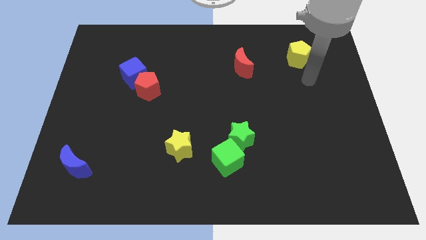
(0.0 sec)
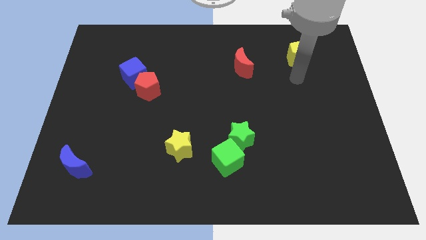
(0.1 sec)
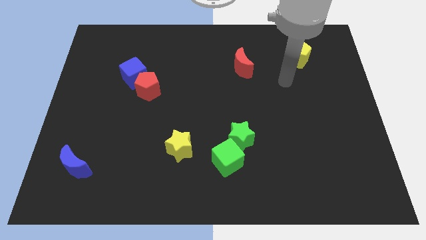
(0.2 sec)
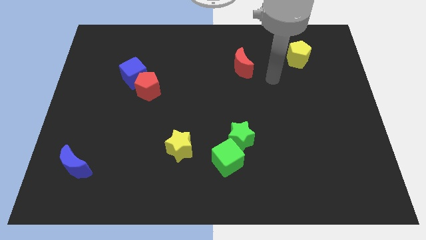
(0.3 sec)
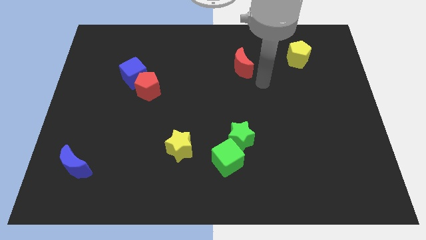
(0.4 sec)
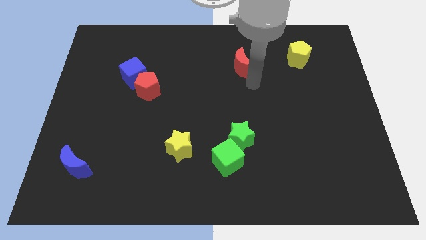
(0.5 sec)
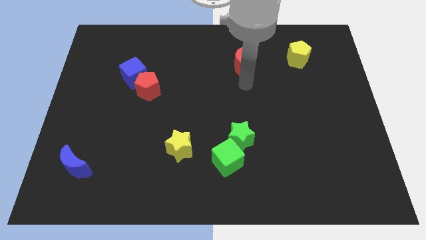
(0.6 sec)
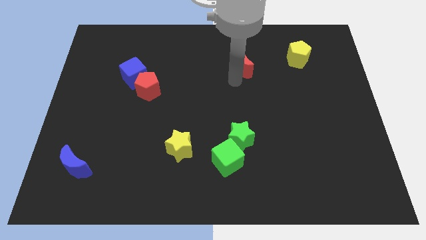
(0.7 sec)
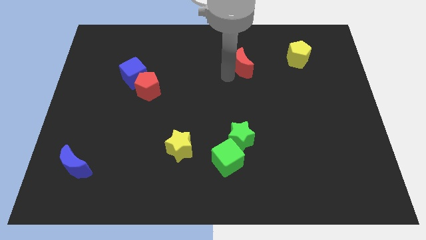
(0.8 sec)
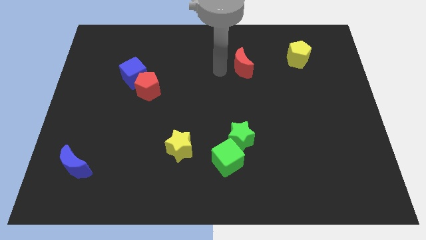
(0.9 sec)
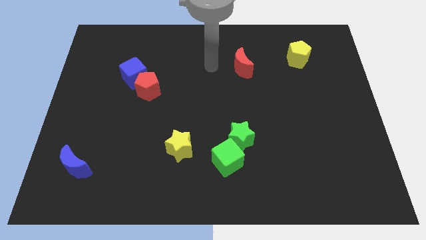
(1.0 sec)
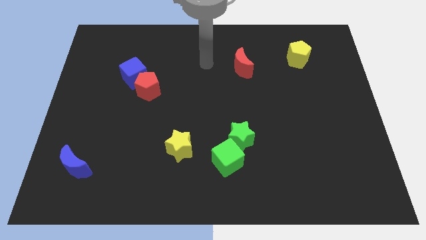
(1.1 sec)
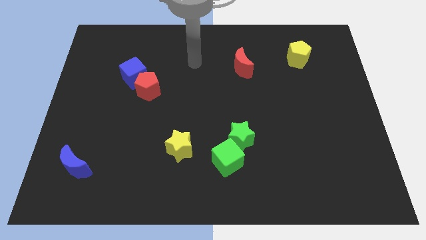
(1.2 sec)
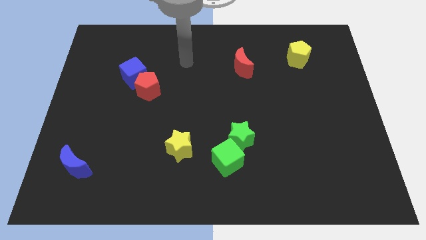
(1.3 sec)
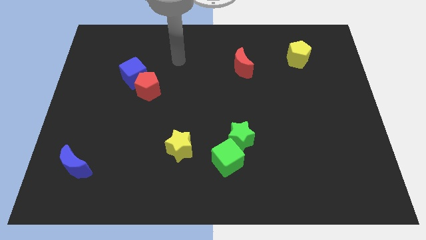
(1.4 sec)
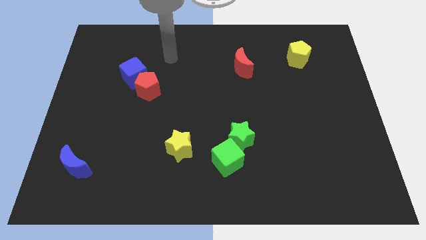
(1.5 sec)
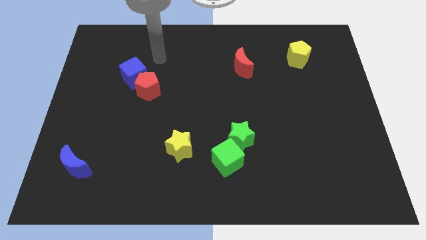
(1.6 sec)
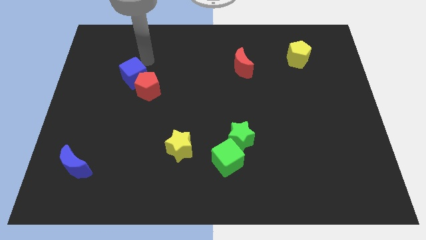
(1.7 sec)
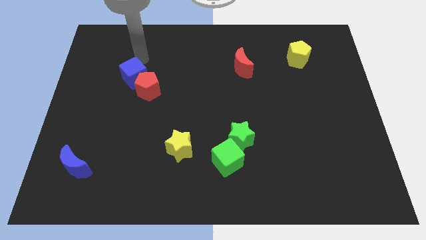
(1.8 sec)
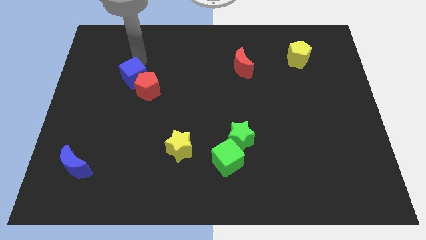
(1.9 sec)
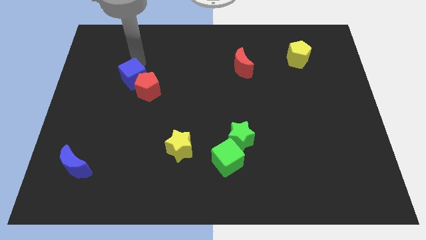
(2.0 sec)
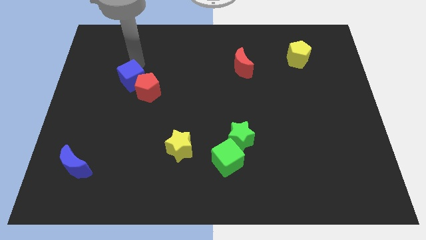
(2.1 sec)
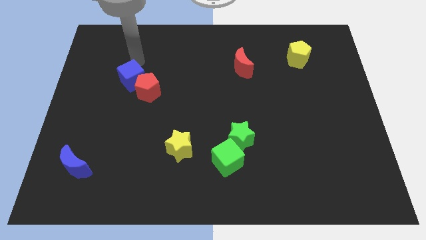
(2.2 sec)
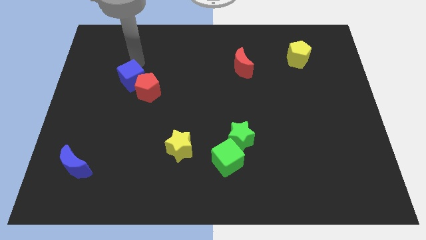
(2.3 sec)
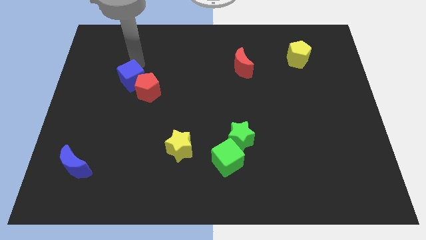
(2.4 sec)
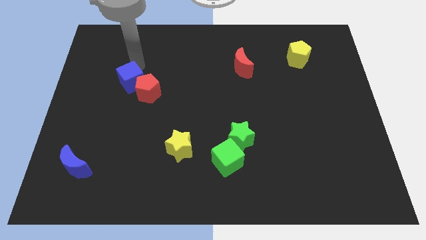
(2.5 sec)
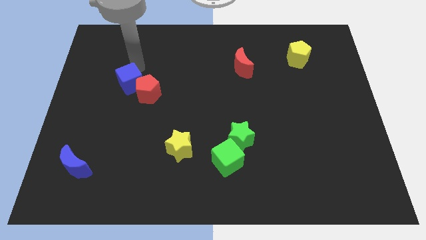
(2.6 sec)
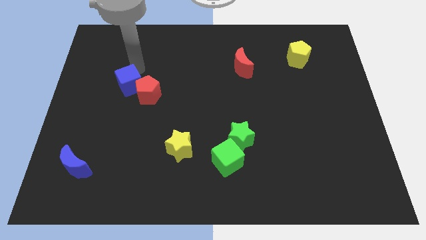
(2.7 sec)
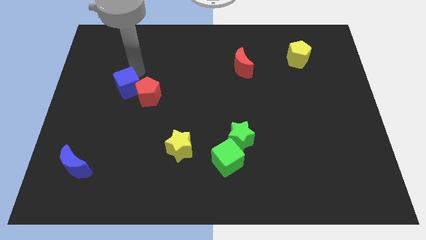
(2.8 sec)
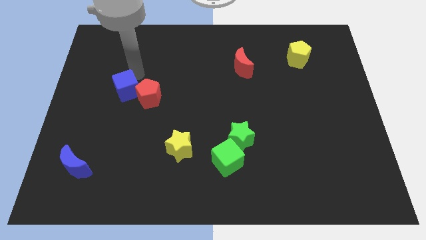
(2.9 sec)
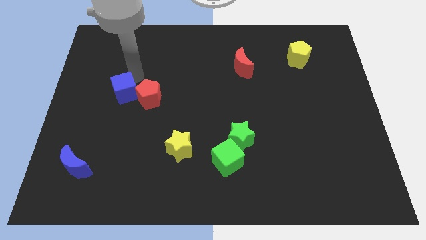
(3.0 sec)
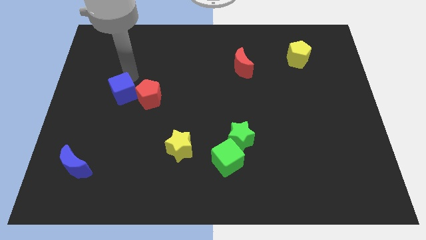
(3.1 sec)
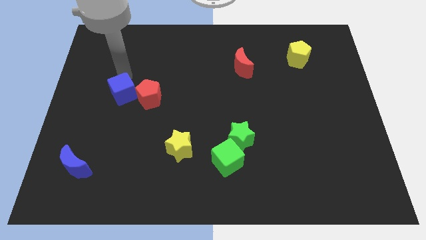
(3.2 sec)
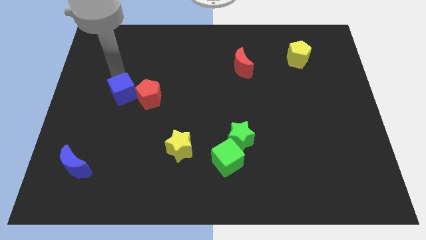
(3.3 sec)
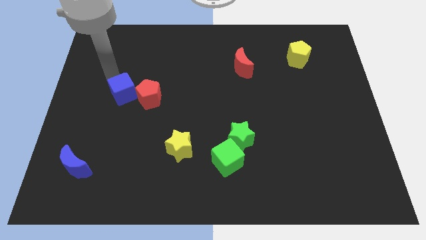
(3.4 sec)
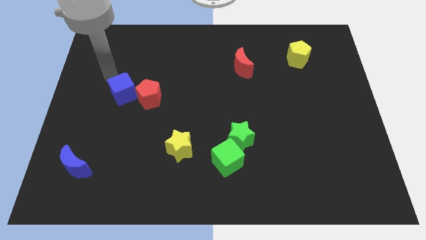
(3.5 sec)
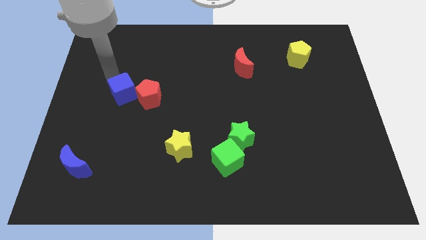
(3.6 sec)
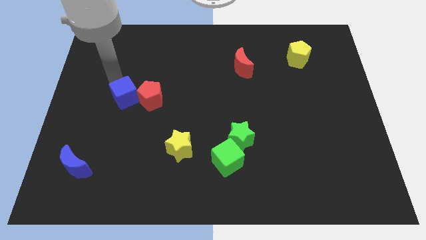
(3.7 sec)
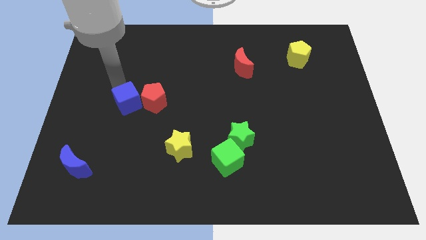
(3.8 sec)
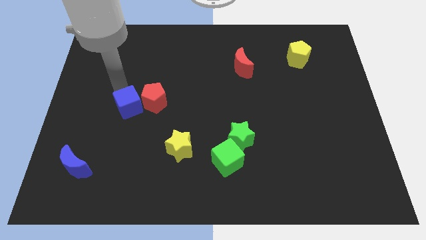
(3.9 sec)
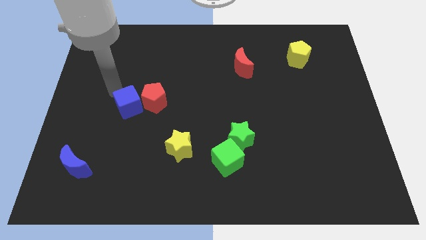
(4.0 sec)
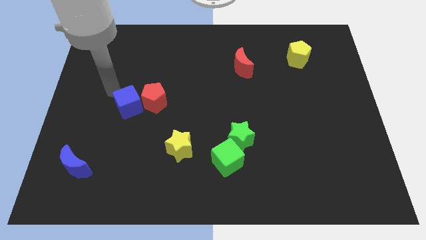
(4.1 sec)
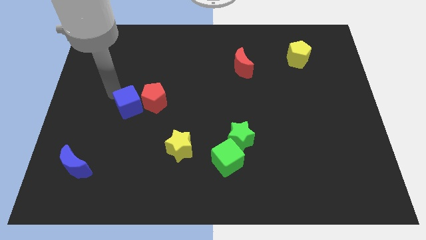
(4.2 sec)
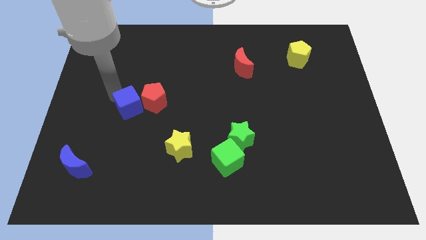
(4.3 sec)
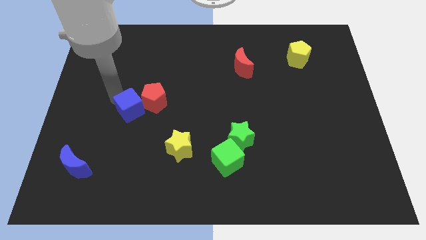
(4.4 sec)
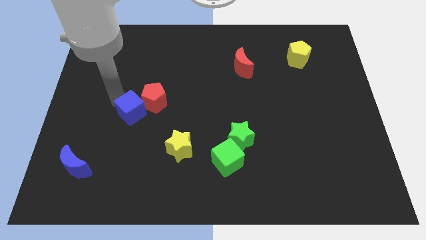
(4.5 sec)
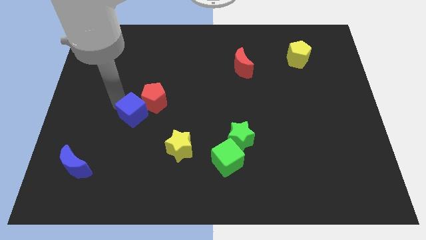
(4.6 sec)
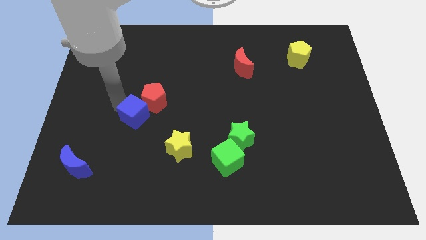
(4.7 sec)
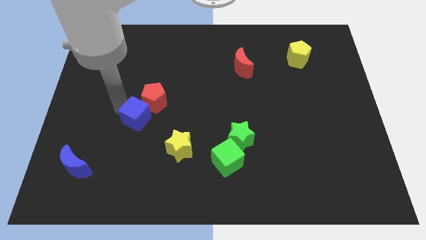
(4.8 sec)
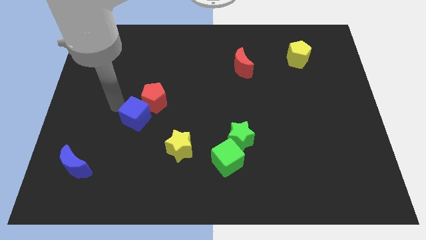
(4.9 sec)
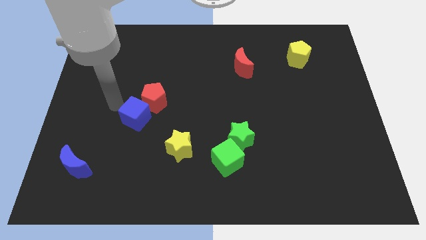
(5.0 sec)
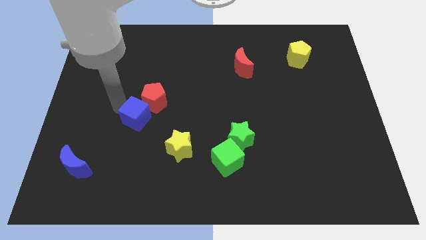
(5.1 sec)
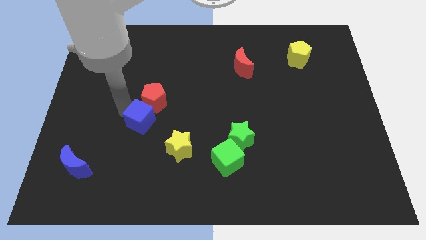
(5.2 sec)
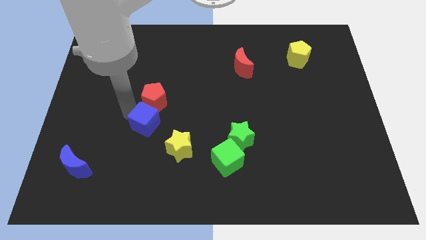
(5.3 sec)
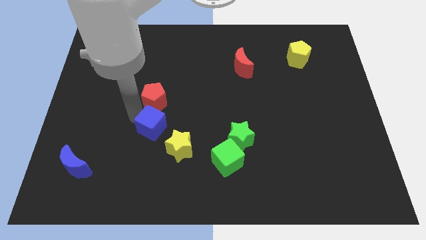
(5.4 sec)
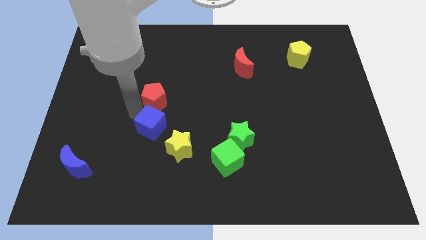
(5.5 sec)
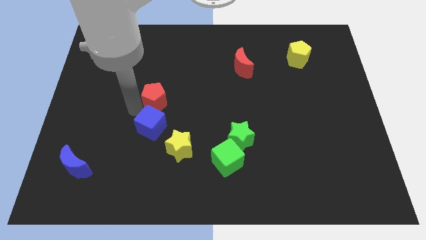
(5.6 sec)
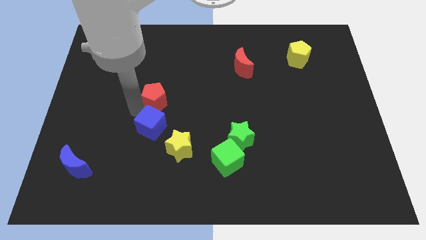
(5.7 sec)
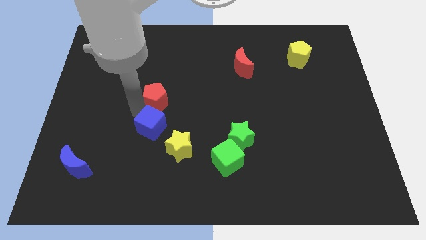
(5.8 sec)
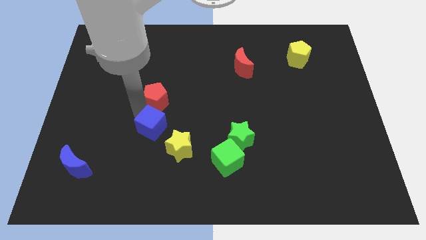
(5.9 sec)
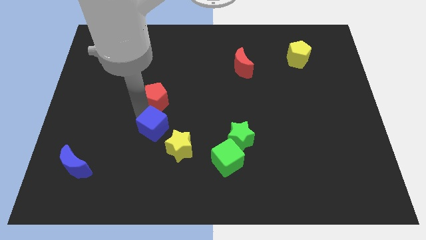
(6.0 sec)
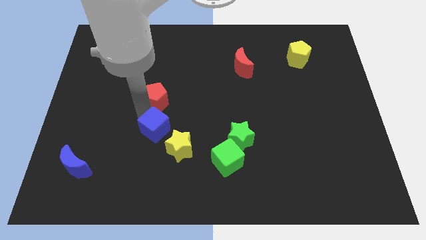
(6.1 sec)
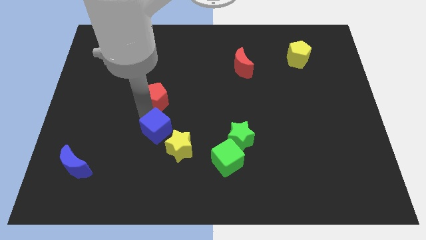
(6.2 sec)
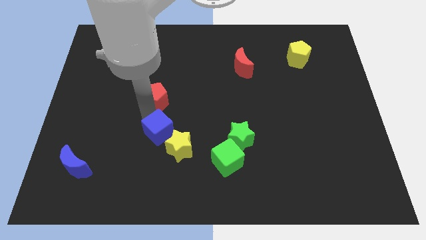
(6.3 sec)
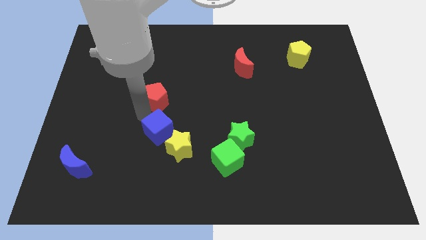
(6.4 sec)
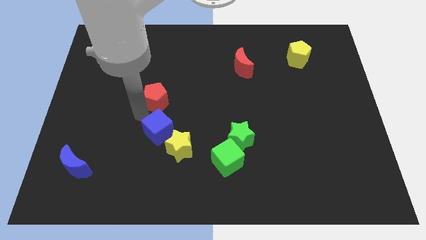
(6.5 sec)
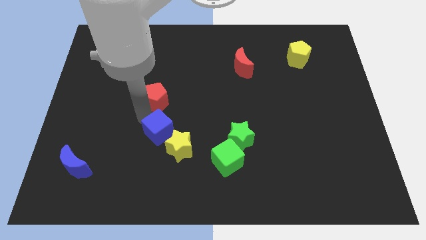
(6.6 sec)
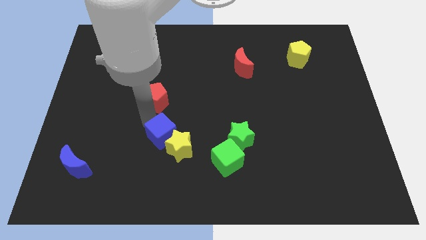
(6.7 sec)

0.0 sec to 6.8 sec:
slide the blue cube towards the yellow star

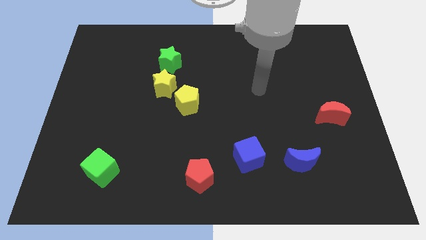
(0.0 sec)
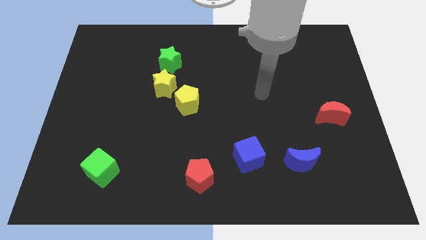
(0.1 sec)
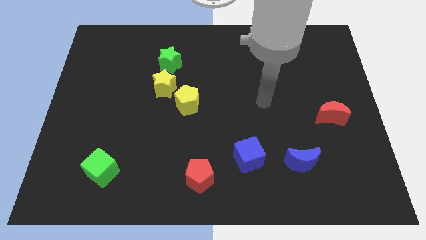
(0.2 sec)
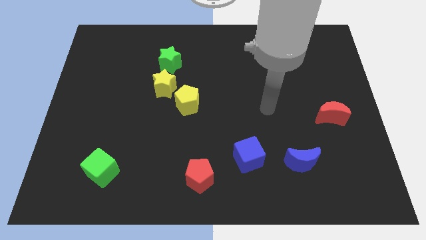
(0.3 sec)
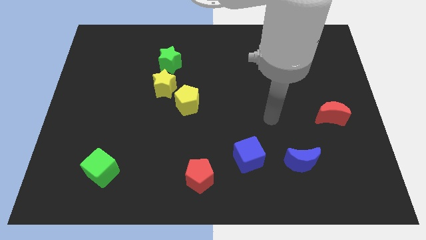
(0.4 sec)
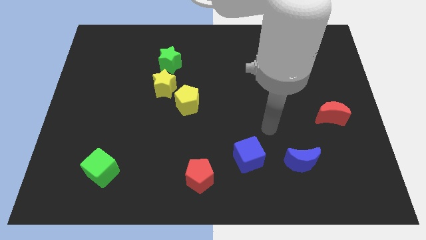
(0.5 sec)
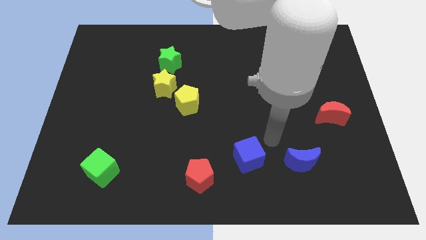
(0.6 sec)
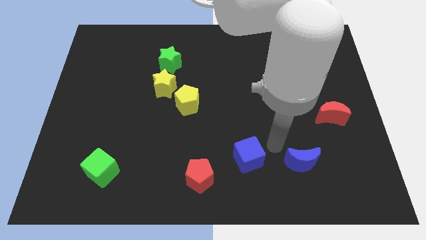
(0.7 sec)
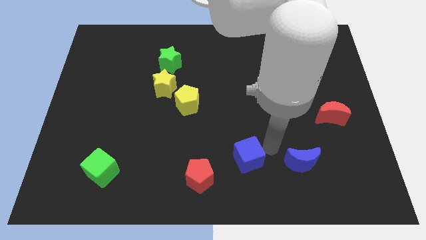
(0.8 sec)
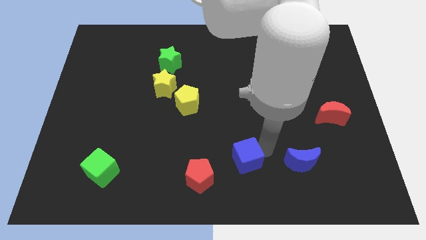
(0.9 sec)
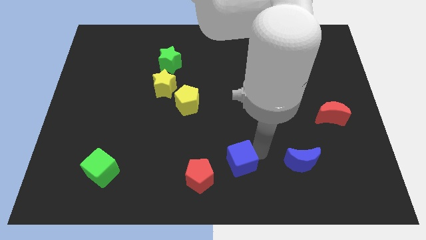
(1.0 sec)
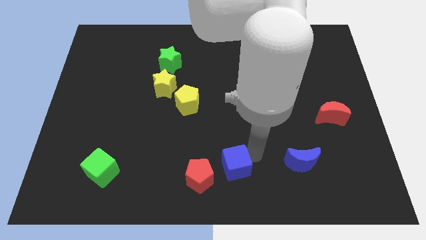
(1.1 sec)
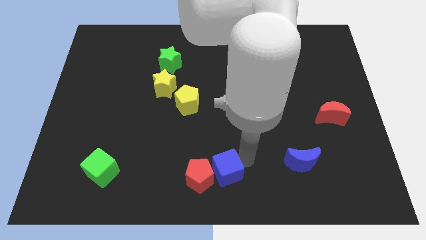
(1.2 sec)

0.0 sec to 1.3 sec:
move the blue cube towards the red pentagon
